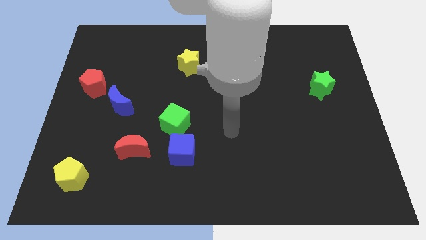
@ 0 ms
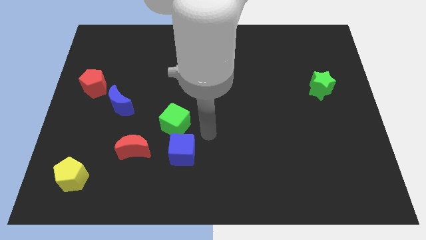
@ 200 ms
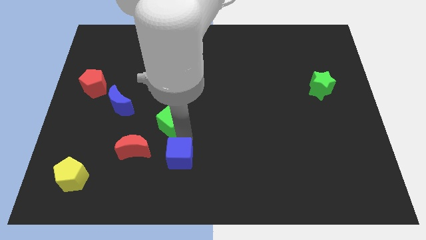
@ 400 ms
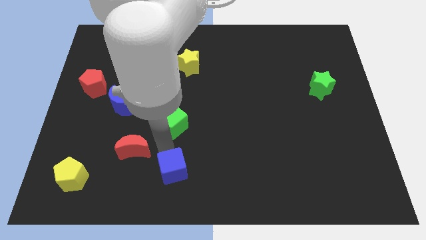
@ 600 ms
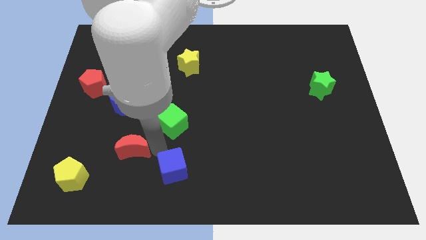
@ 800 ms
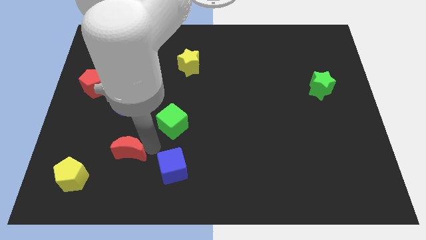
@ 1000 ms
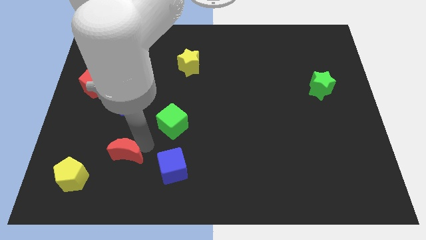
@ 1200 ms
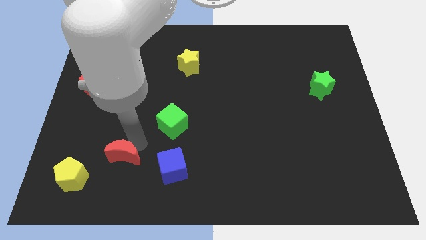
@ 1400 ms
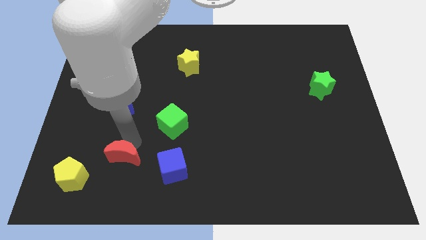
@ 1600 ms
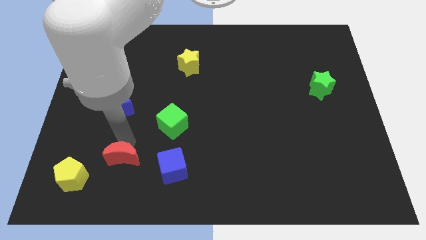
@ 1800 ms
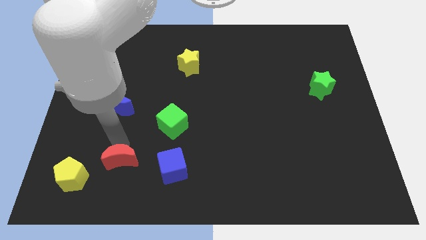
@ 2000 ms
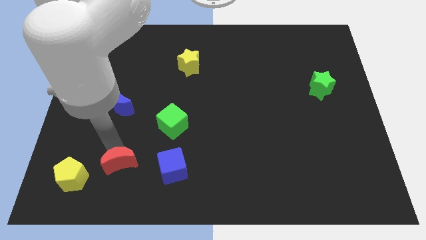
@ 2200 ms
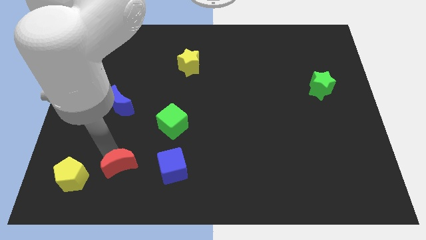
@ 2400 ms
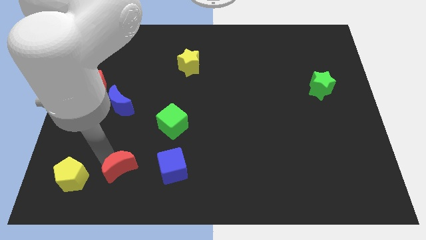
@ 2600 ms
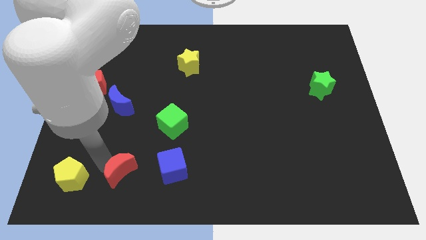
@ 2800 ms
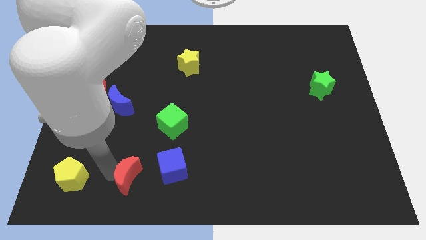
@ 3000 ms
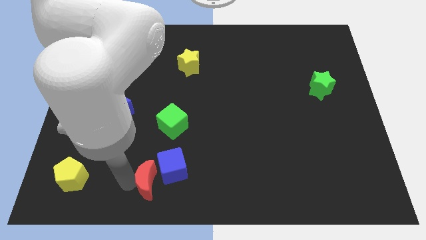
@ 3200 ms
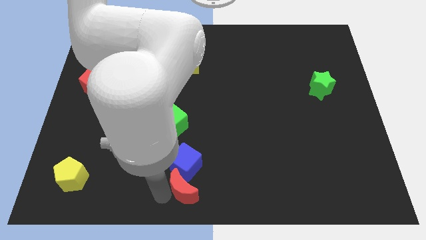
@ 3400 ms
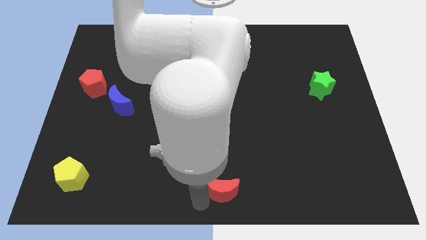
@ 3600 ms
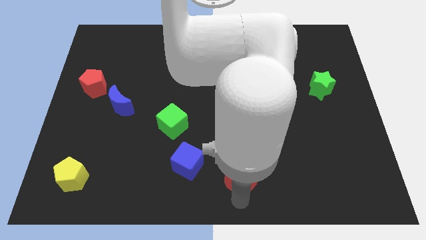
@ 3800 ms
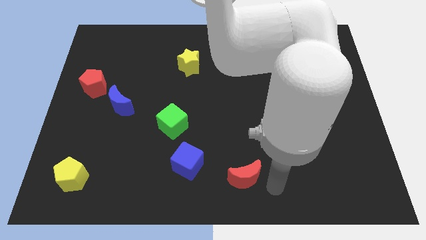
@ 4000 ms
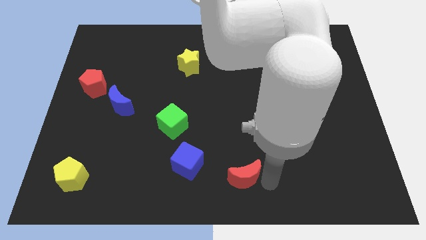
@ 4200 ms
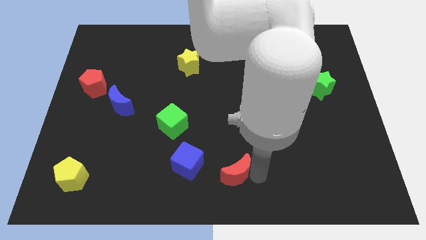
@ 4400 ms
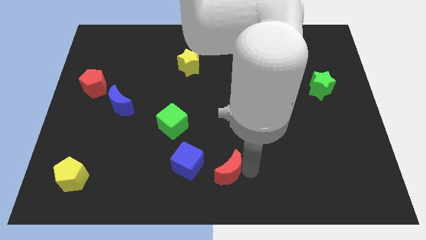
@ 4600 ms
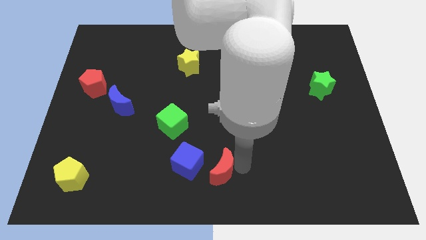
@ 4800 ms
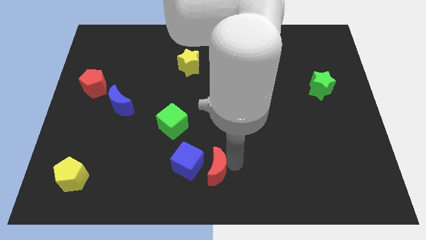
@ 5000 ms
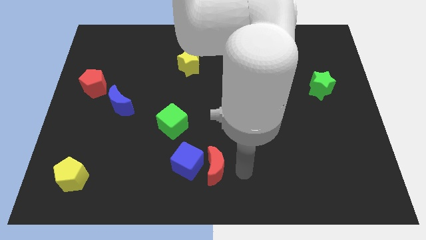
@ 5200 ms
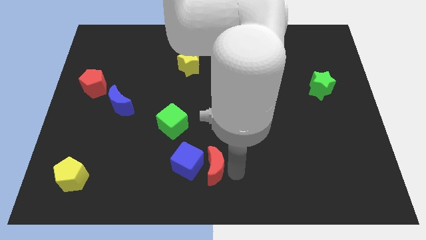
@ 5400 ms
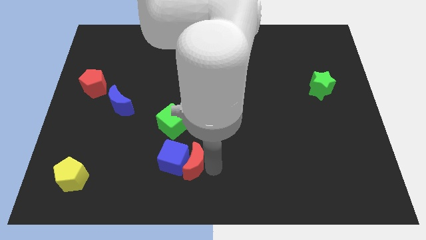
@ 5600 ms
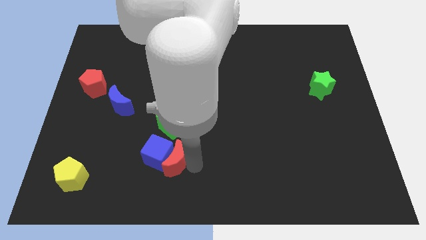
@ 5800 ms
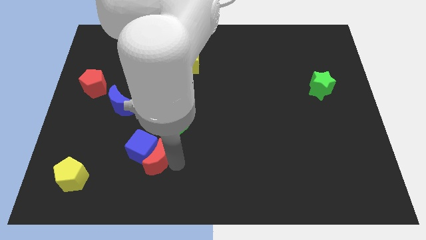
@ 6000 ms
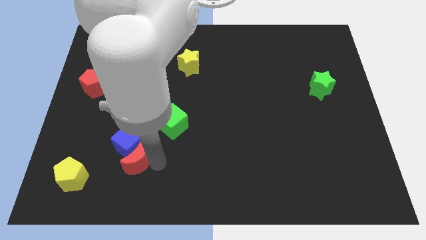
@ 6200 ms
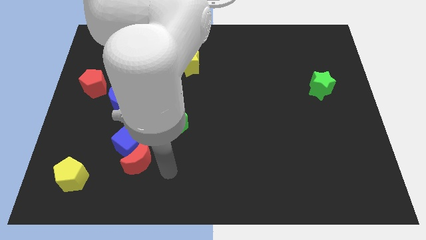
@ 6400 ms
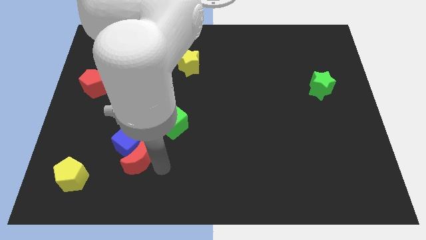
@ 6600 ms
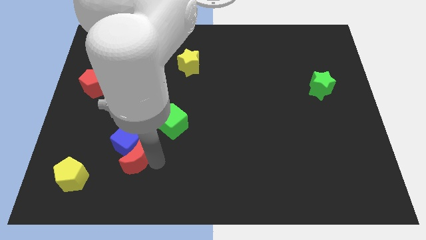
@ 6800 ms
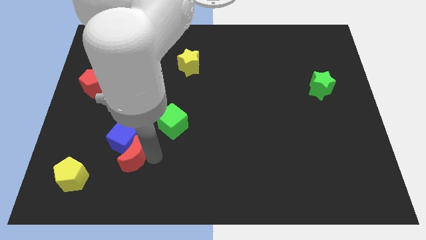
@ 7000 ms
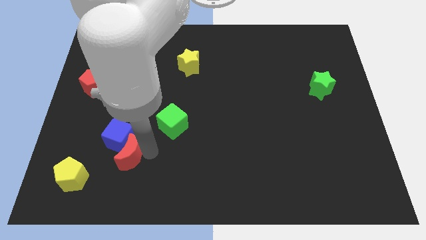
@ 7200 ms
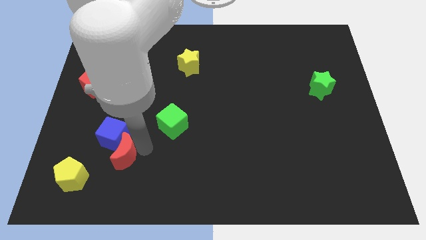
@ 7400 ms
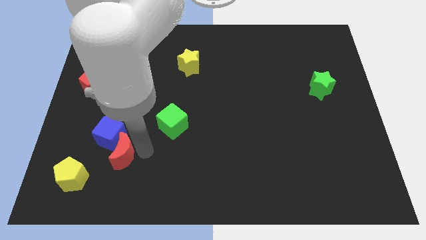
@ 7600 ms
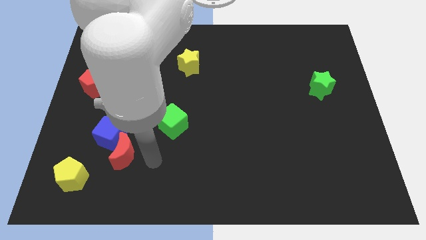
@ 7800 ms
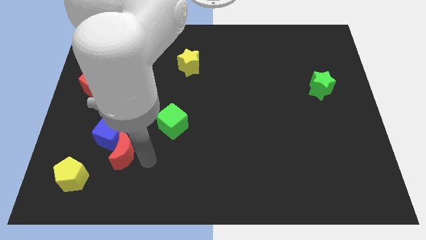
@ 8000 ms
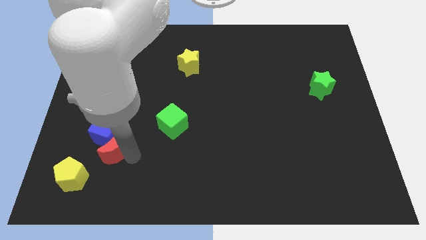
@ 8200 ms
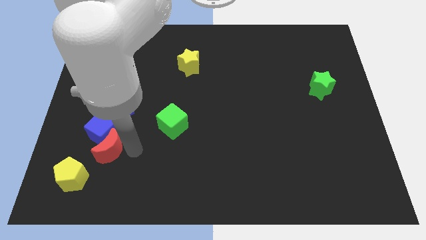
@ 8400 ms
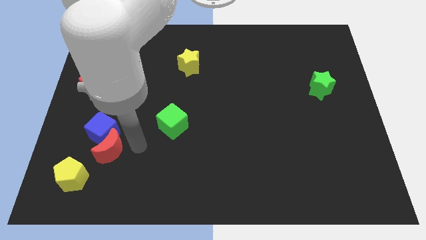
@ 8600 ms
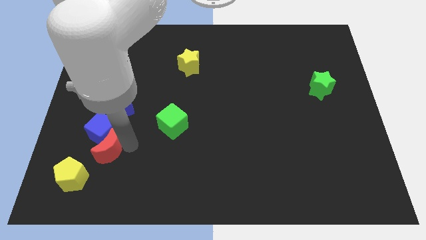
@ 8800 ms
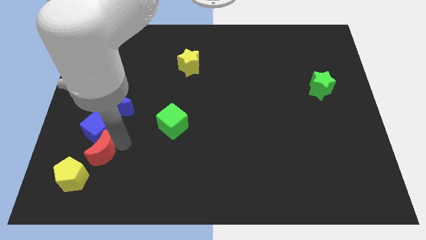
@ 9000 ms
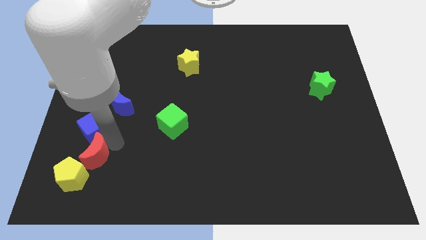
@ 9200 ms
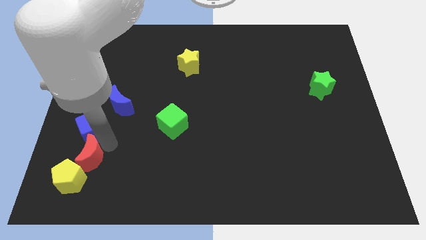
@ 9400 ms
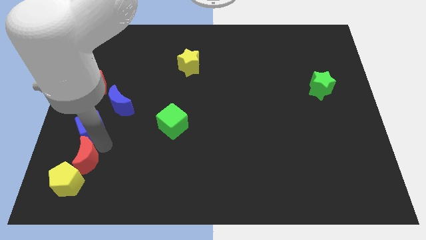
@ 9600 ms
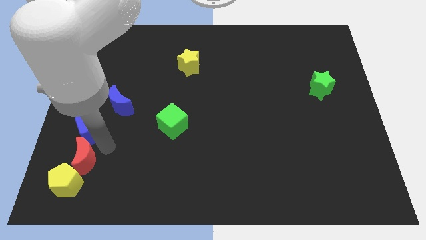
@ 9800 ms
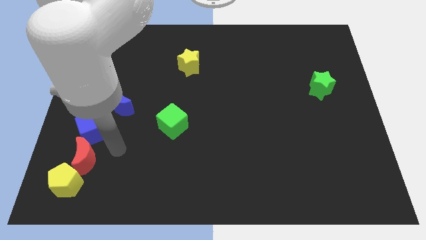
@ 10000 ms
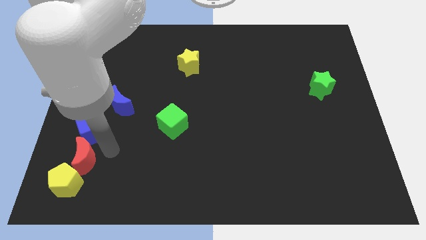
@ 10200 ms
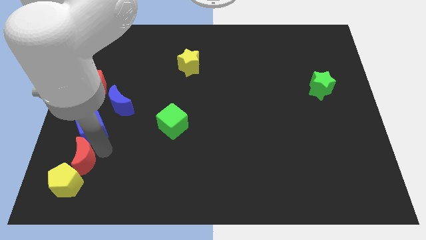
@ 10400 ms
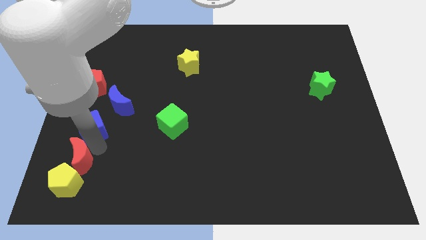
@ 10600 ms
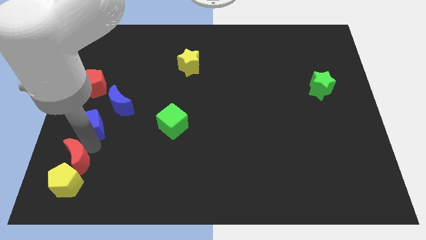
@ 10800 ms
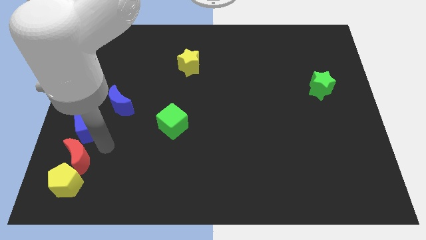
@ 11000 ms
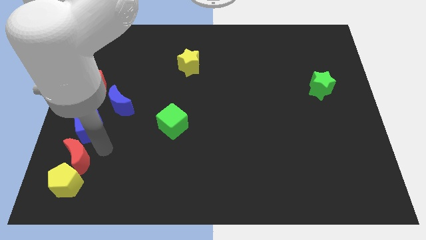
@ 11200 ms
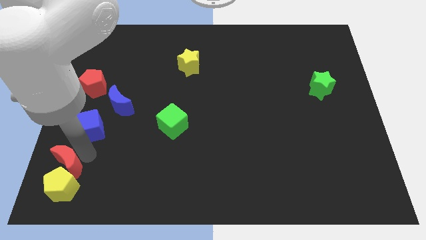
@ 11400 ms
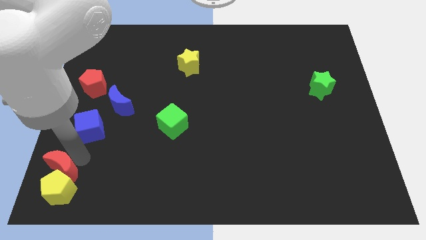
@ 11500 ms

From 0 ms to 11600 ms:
slide the red moon to the bottom left of the board
